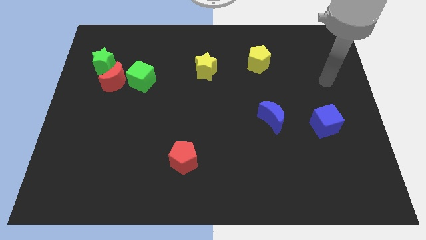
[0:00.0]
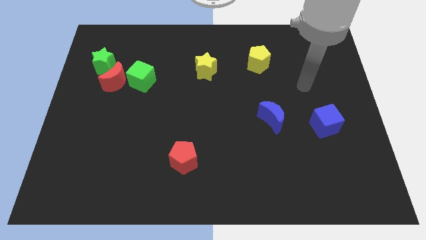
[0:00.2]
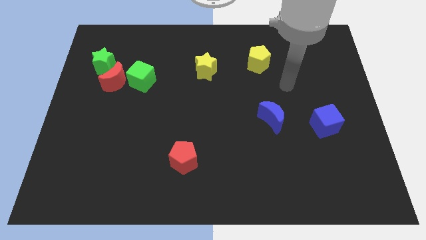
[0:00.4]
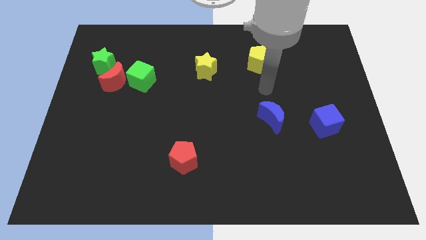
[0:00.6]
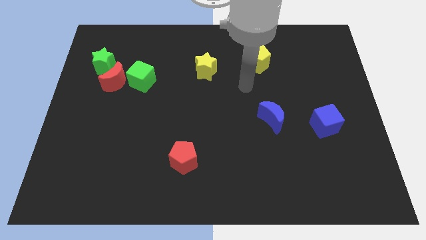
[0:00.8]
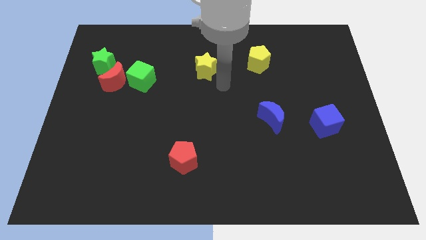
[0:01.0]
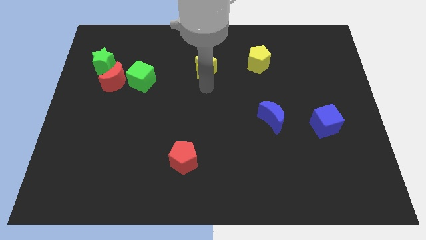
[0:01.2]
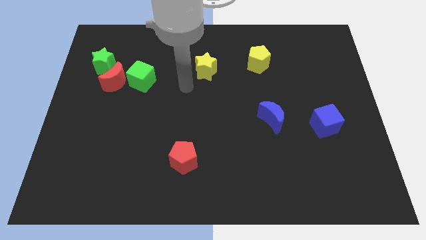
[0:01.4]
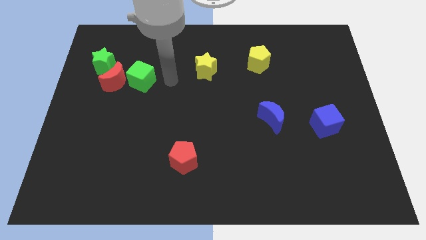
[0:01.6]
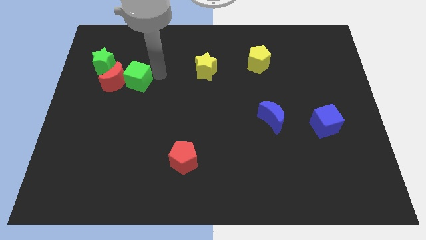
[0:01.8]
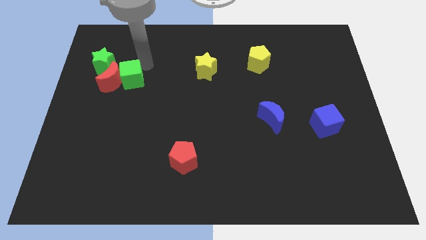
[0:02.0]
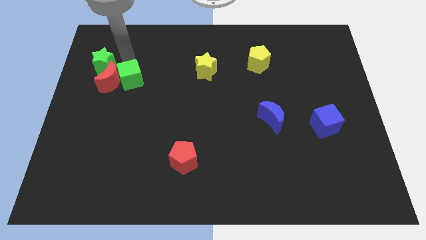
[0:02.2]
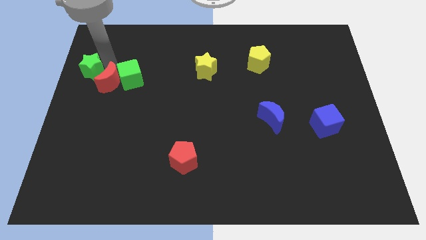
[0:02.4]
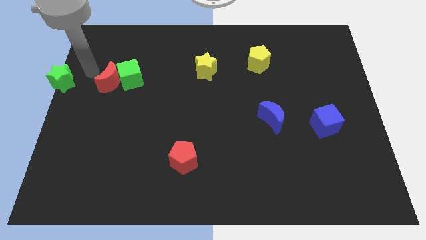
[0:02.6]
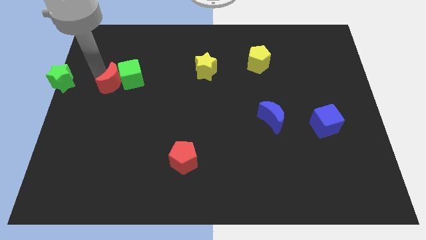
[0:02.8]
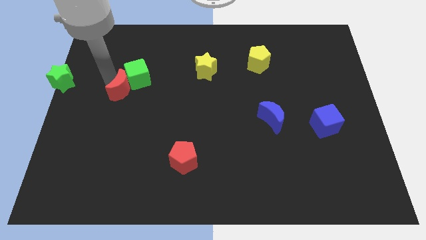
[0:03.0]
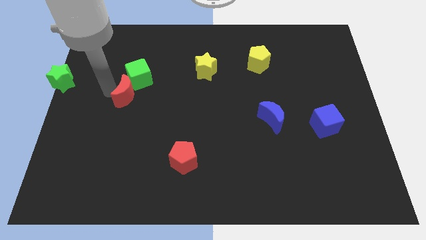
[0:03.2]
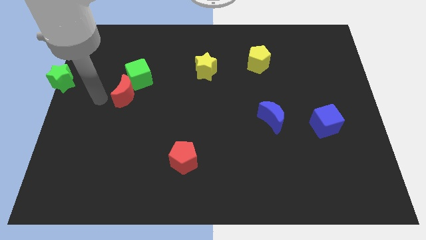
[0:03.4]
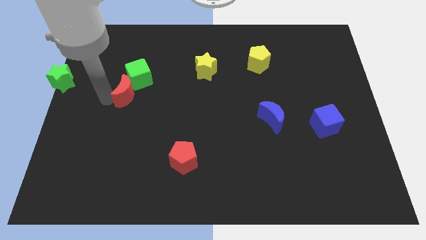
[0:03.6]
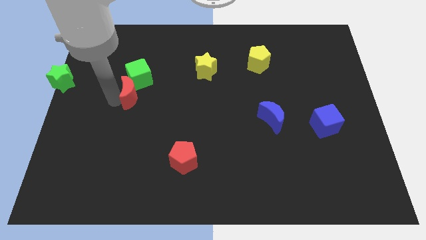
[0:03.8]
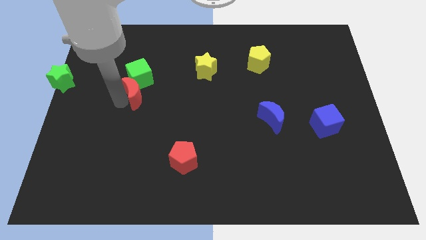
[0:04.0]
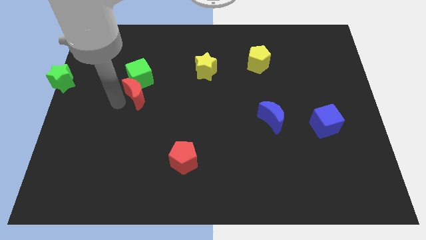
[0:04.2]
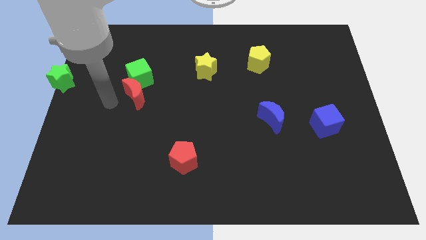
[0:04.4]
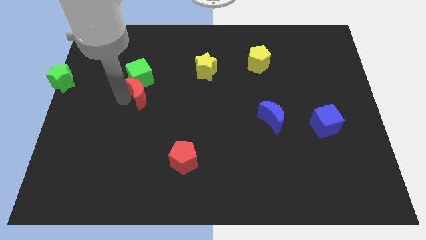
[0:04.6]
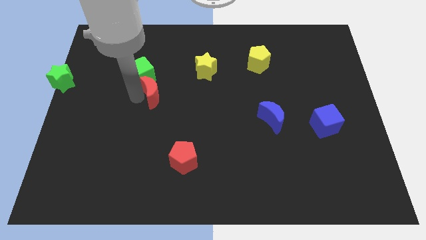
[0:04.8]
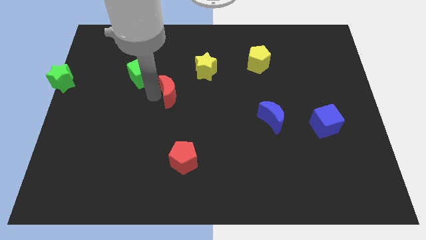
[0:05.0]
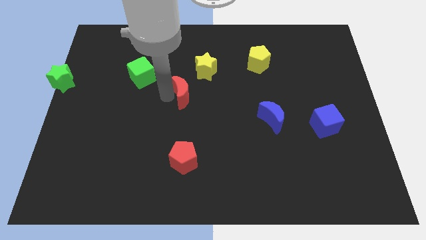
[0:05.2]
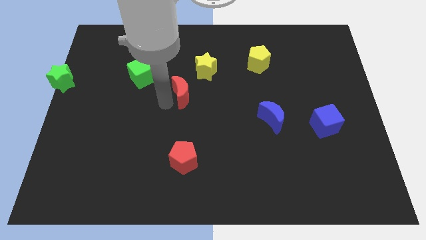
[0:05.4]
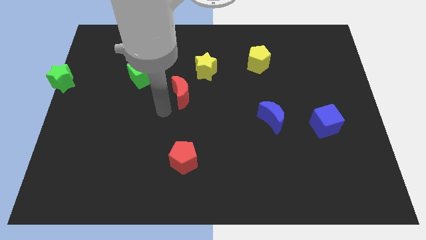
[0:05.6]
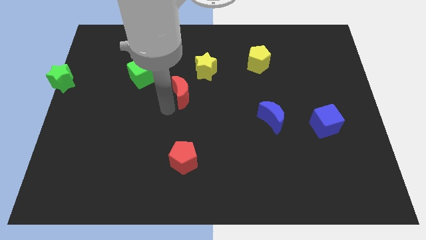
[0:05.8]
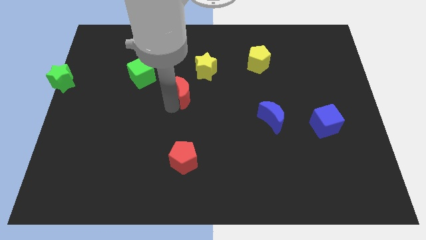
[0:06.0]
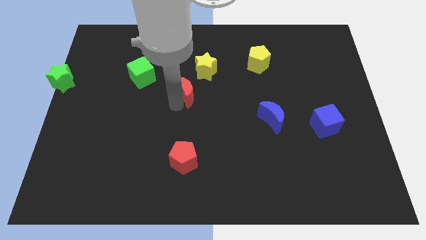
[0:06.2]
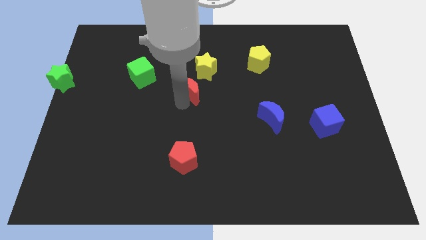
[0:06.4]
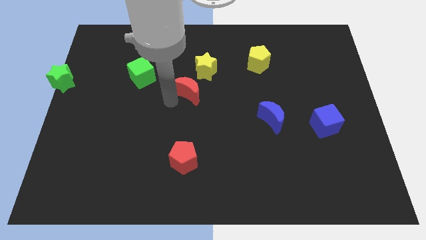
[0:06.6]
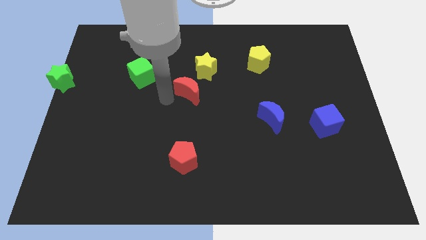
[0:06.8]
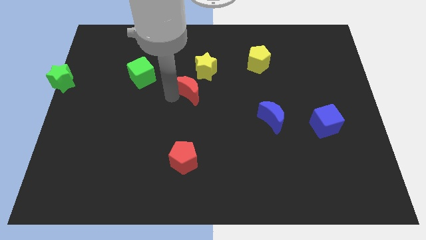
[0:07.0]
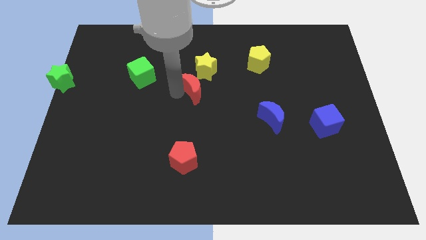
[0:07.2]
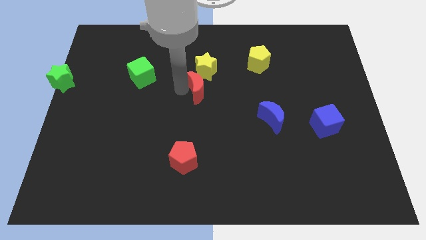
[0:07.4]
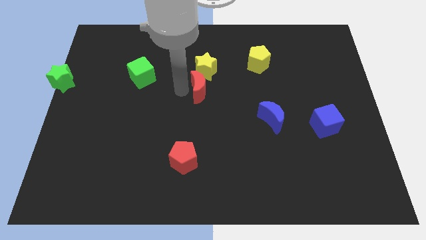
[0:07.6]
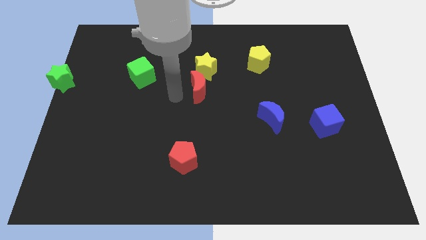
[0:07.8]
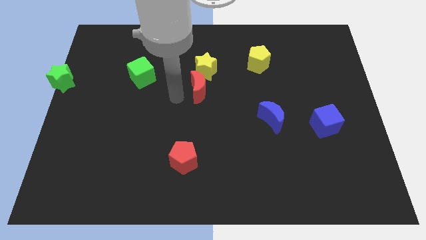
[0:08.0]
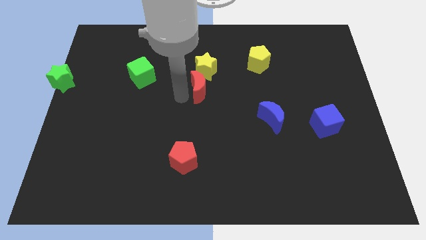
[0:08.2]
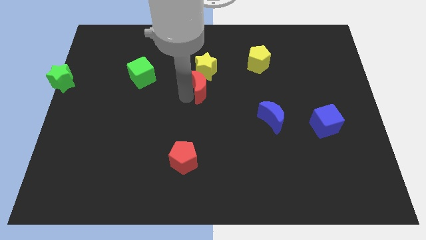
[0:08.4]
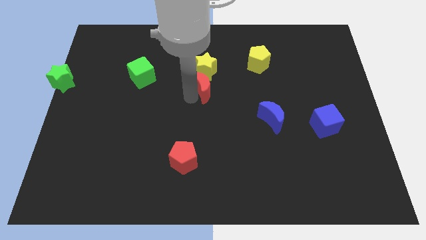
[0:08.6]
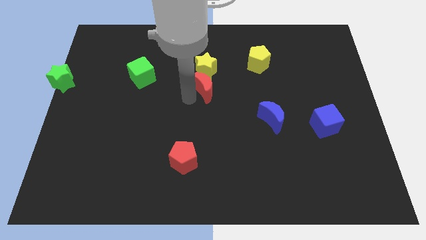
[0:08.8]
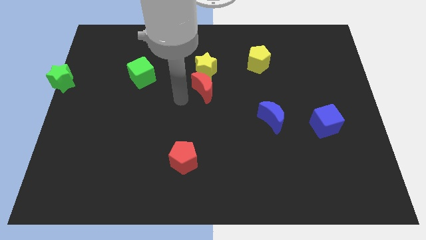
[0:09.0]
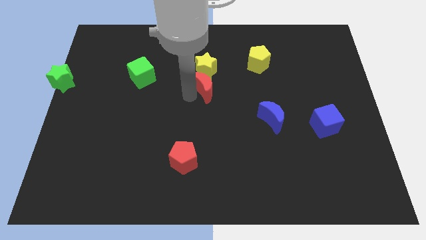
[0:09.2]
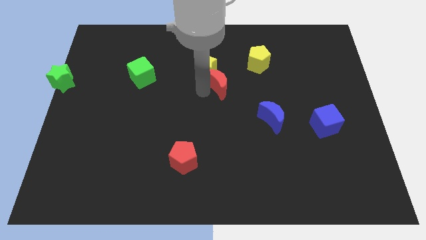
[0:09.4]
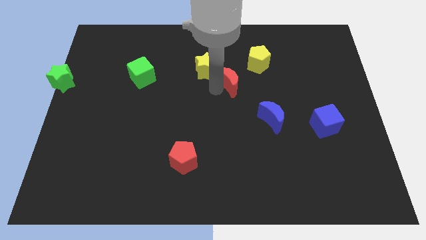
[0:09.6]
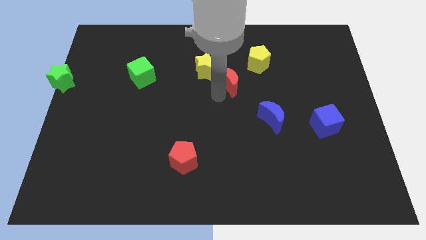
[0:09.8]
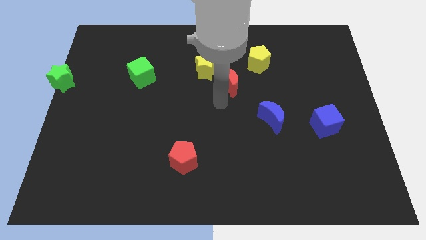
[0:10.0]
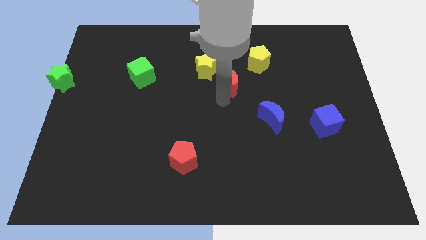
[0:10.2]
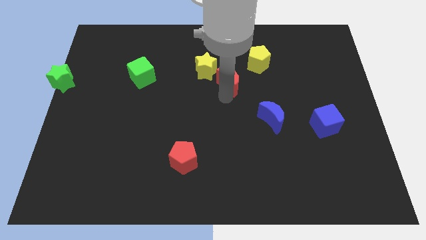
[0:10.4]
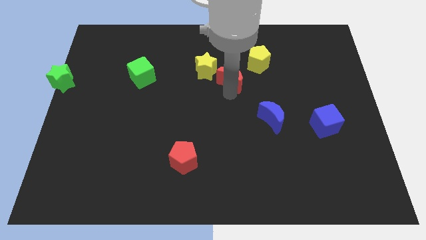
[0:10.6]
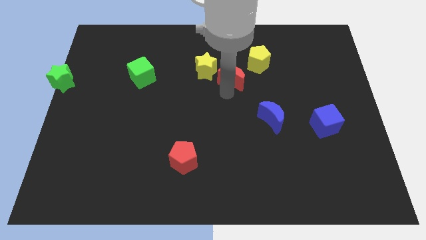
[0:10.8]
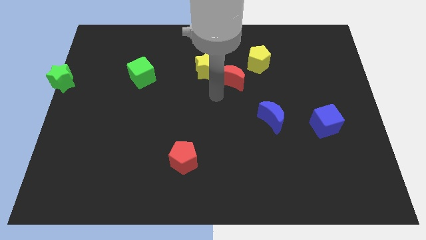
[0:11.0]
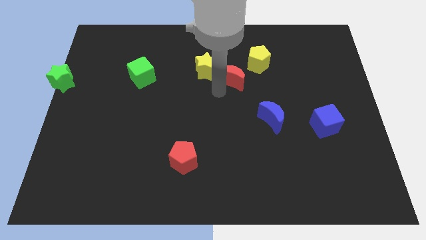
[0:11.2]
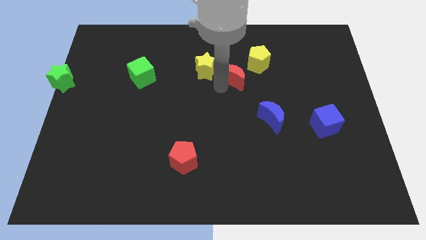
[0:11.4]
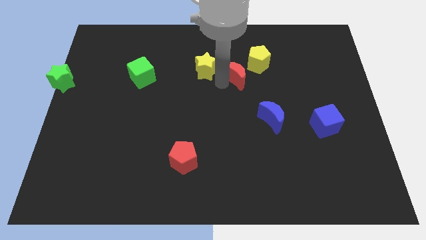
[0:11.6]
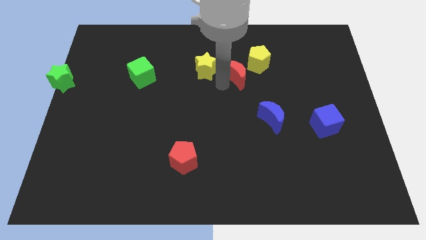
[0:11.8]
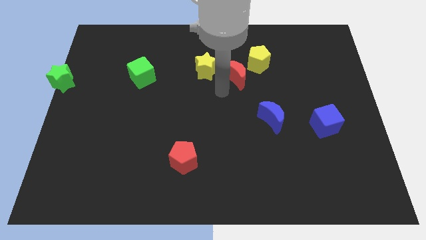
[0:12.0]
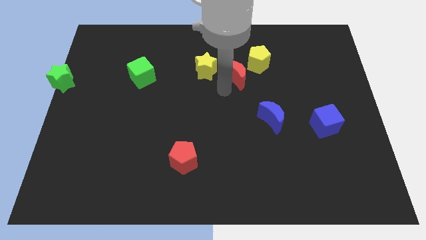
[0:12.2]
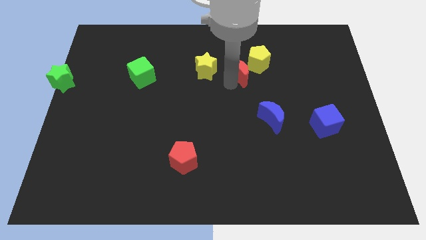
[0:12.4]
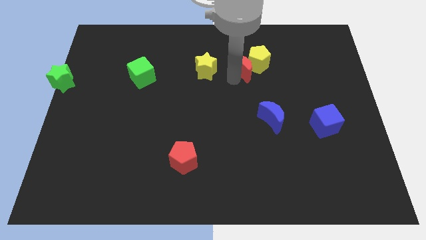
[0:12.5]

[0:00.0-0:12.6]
slide the red moon to the yellow pentagon

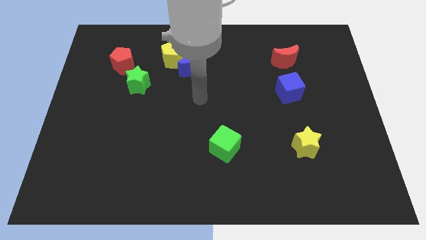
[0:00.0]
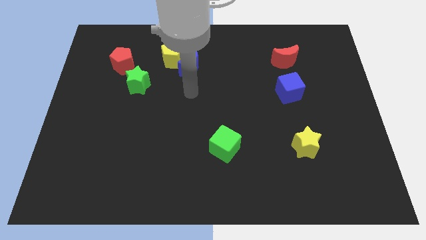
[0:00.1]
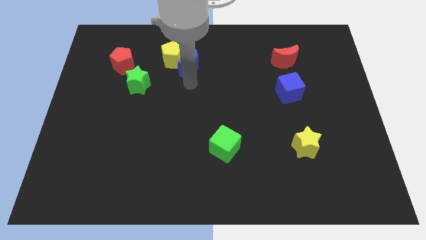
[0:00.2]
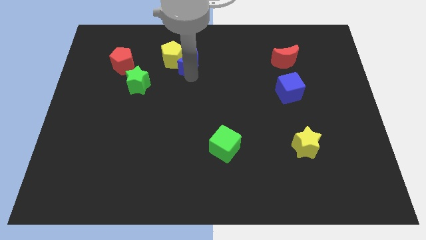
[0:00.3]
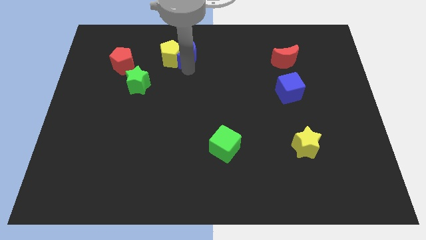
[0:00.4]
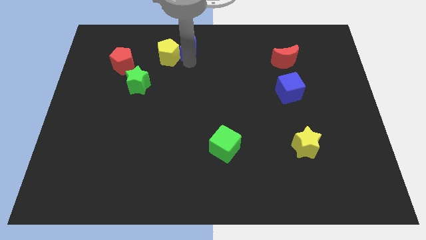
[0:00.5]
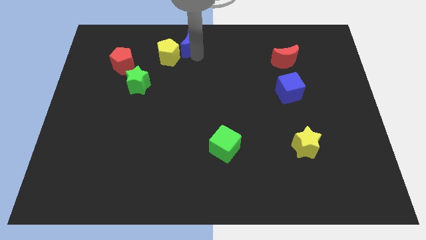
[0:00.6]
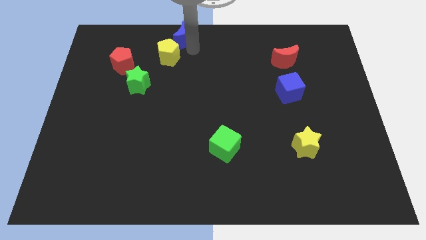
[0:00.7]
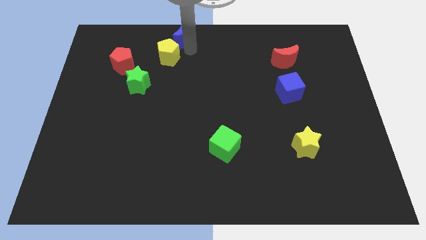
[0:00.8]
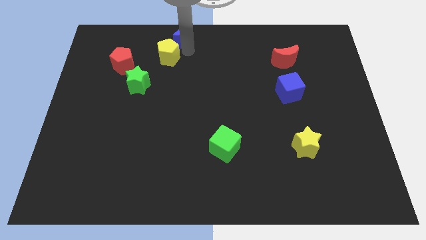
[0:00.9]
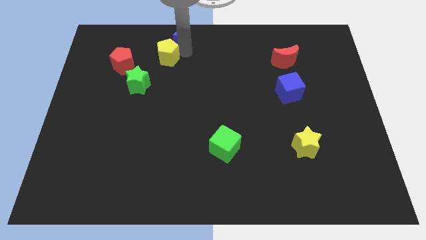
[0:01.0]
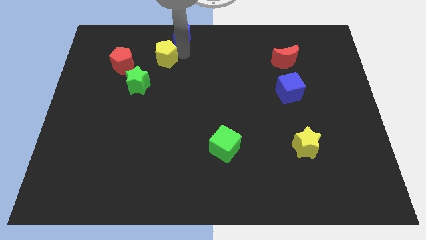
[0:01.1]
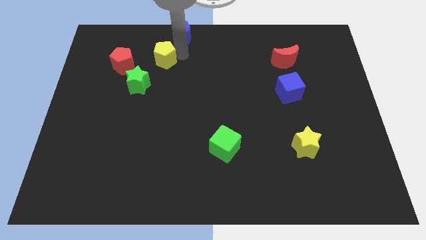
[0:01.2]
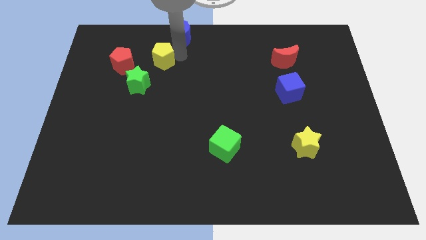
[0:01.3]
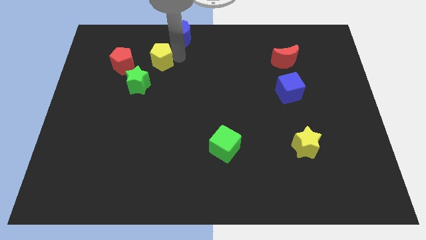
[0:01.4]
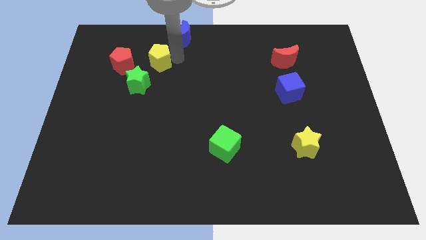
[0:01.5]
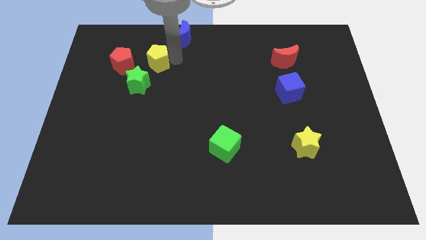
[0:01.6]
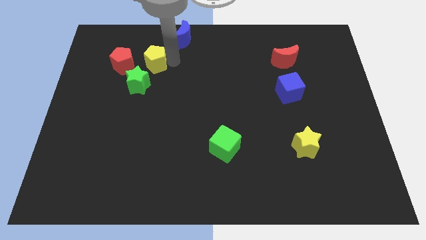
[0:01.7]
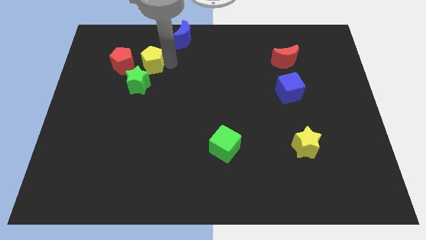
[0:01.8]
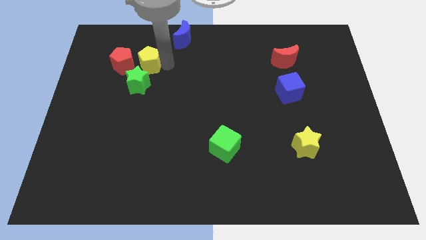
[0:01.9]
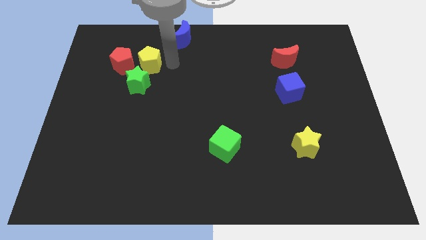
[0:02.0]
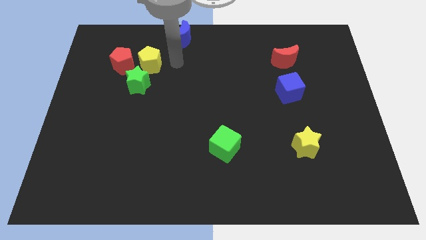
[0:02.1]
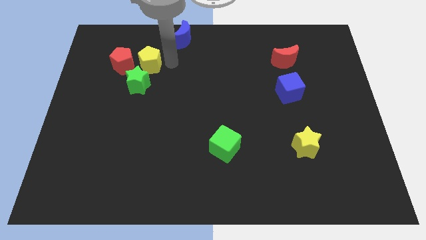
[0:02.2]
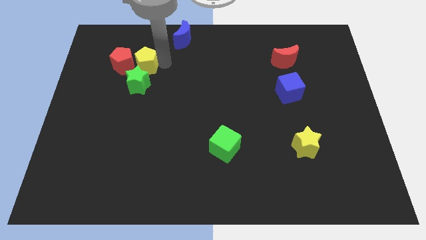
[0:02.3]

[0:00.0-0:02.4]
move the yellow pentagon next to the red pentagon

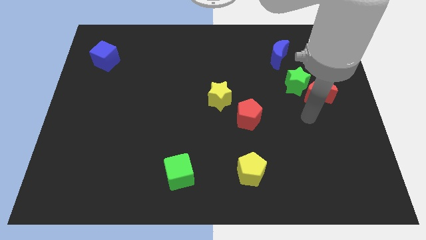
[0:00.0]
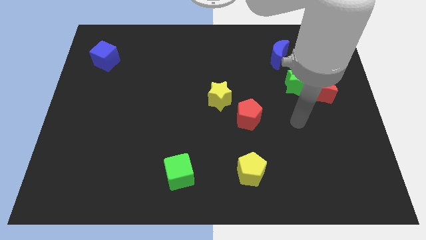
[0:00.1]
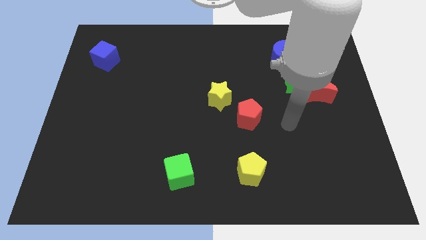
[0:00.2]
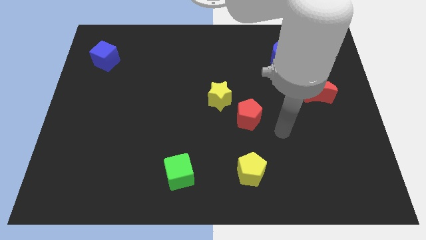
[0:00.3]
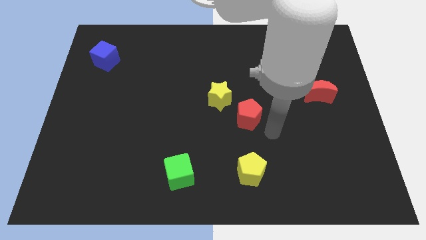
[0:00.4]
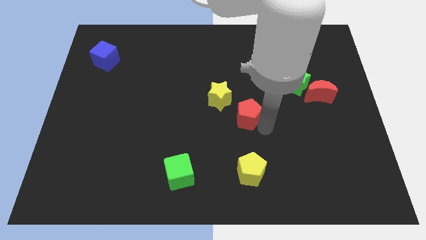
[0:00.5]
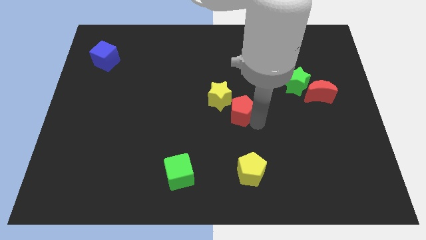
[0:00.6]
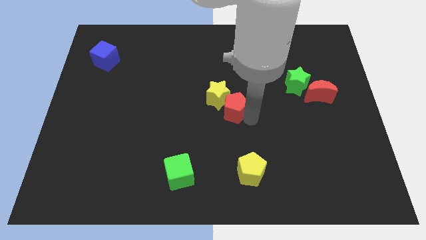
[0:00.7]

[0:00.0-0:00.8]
push the red pentagon close to the yellow star
